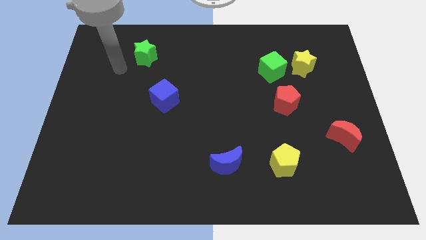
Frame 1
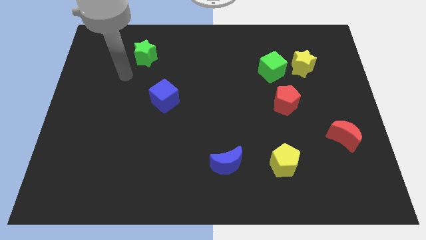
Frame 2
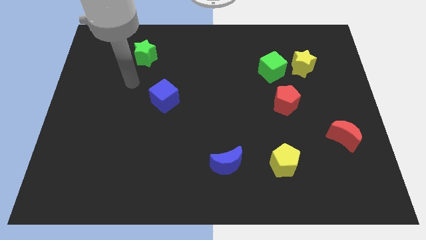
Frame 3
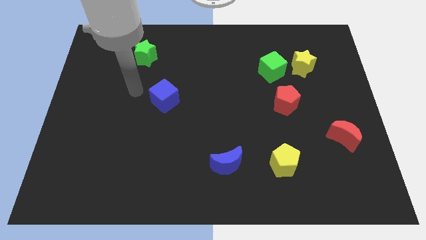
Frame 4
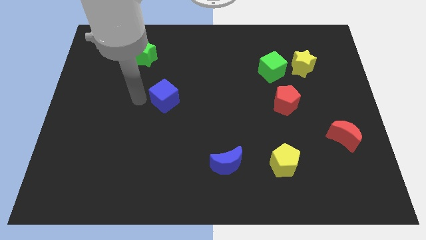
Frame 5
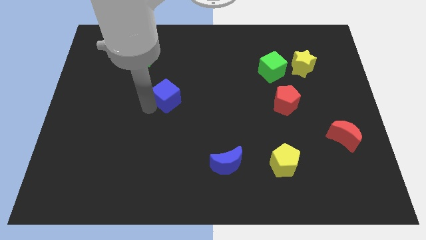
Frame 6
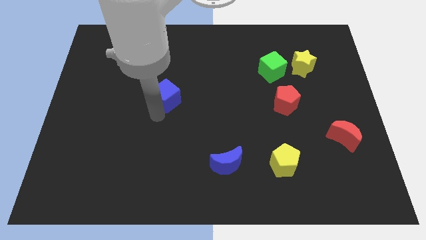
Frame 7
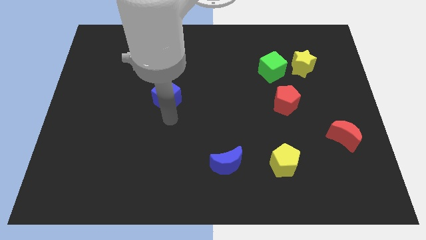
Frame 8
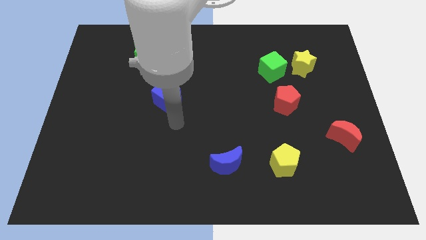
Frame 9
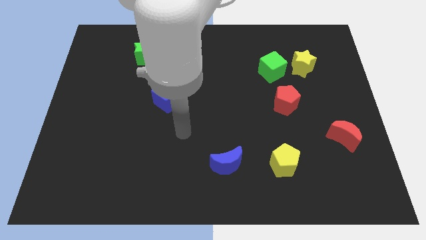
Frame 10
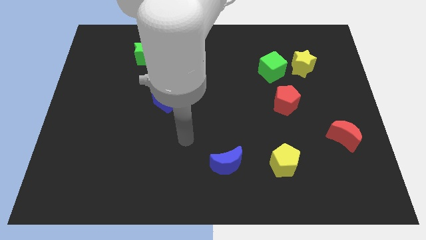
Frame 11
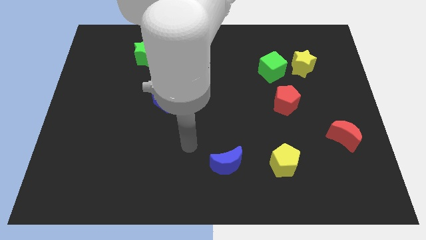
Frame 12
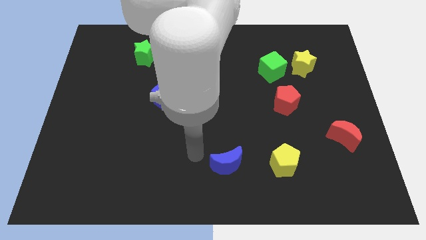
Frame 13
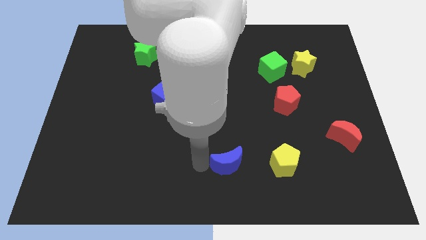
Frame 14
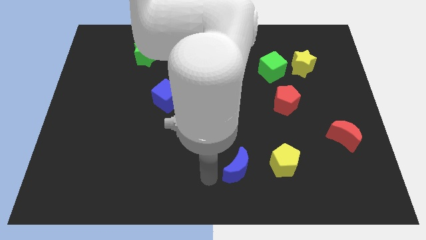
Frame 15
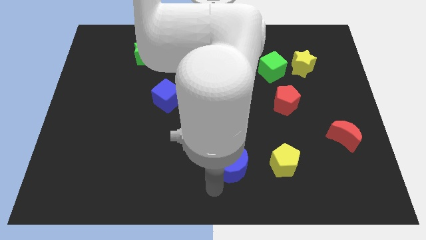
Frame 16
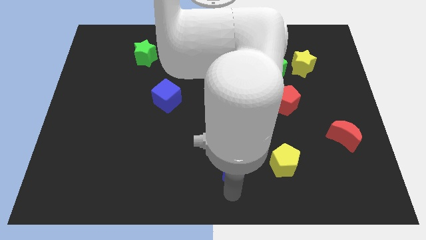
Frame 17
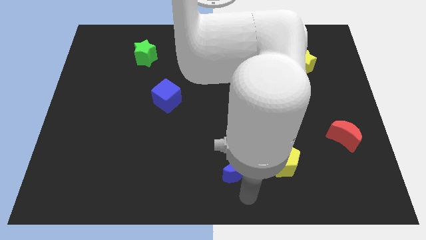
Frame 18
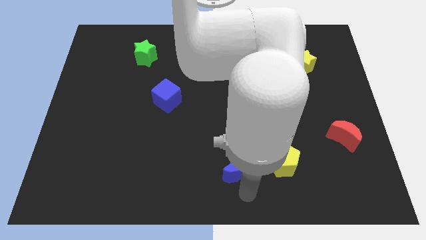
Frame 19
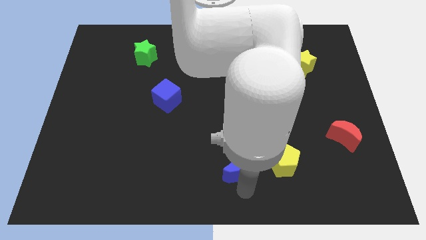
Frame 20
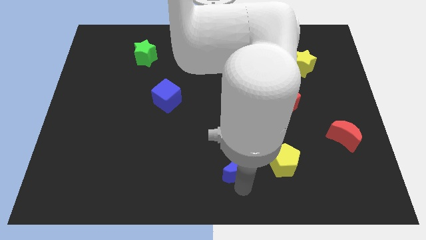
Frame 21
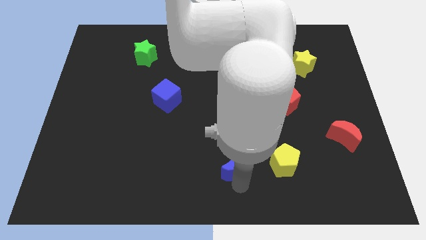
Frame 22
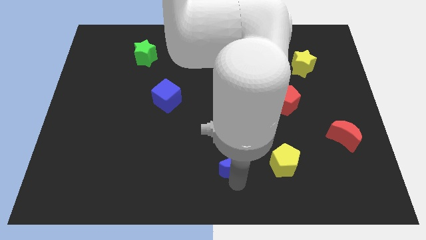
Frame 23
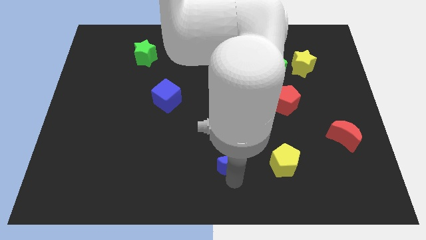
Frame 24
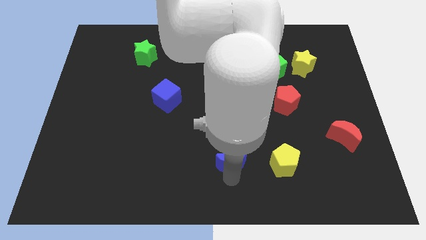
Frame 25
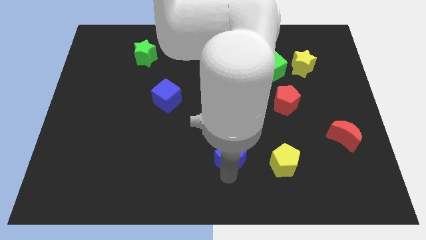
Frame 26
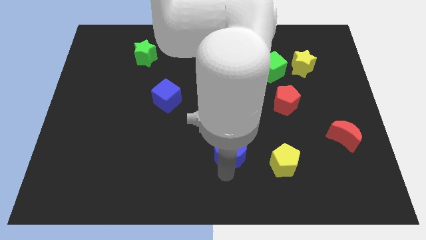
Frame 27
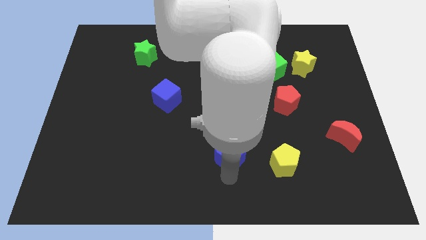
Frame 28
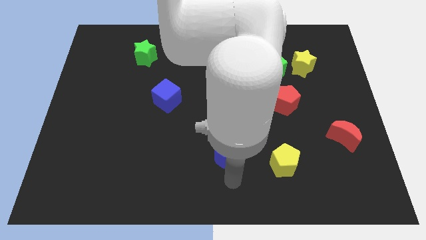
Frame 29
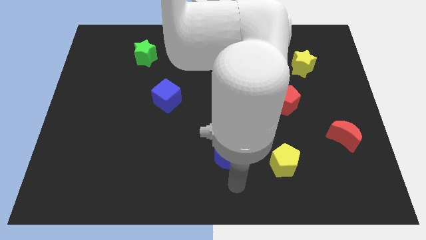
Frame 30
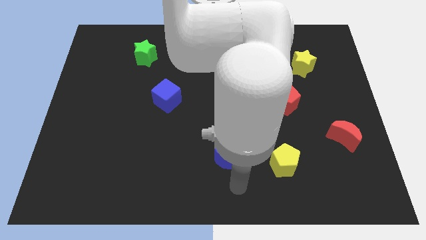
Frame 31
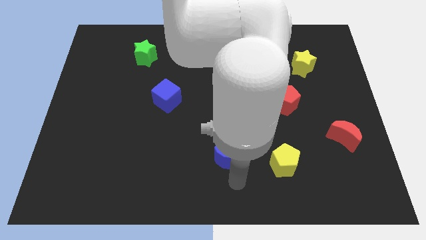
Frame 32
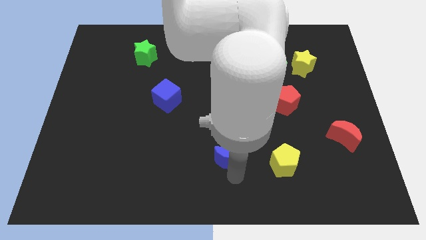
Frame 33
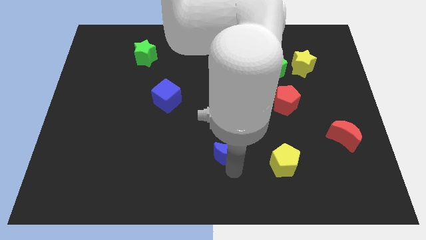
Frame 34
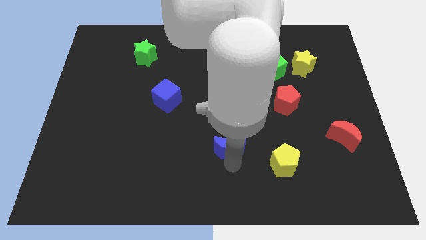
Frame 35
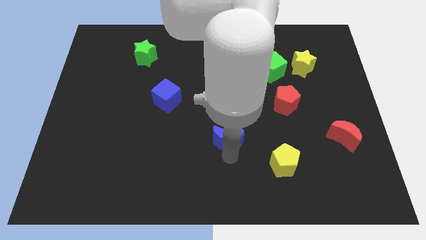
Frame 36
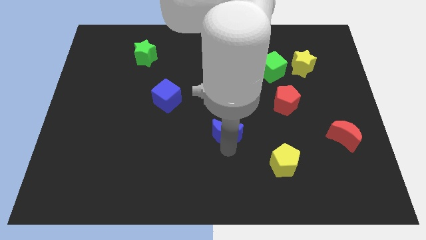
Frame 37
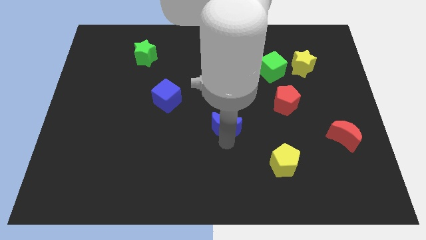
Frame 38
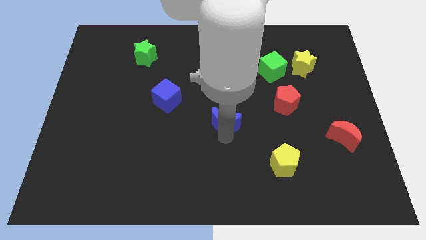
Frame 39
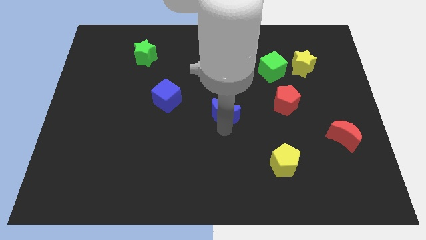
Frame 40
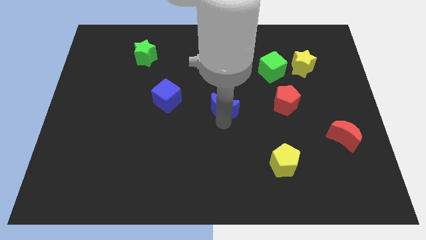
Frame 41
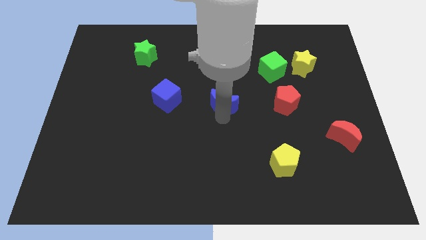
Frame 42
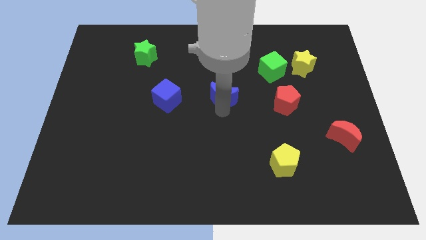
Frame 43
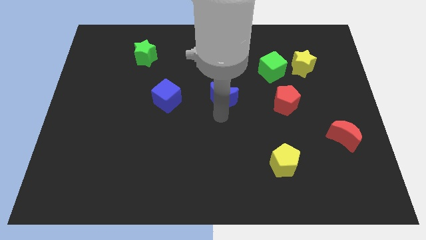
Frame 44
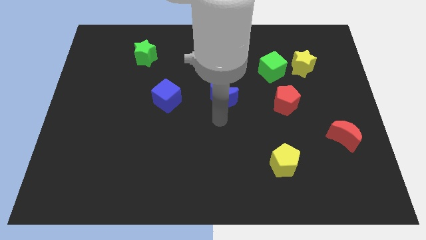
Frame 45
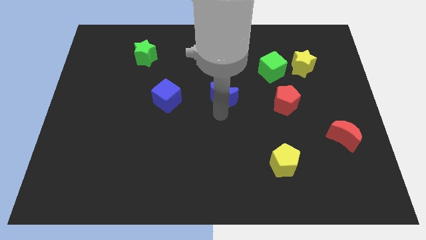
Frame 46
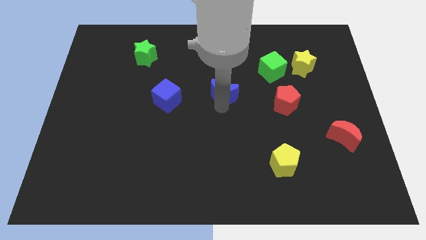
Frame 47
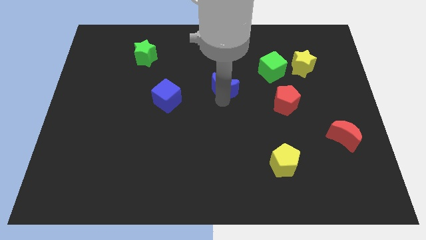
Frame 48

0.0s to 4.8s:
slide the blue moon up

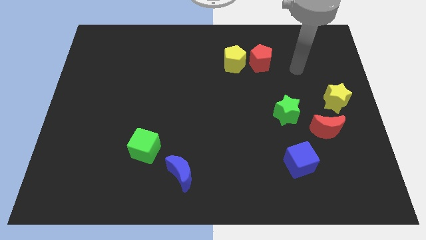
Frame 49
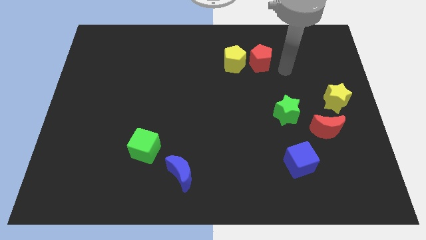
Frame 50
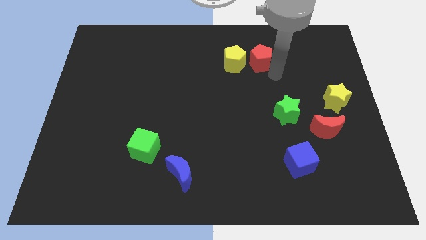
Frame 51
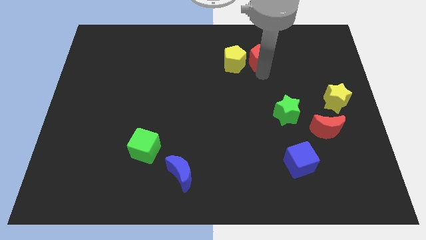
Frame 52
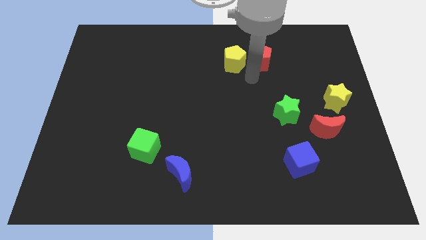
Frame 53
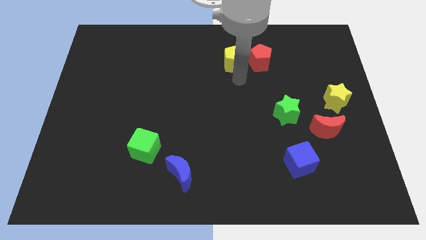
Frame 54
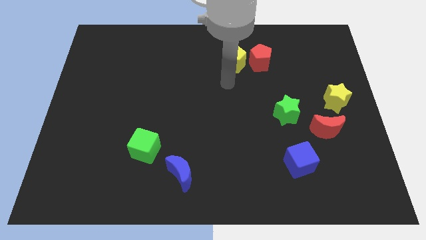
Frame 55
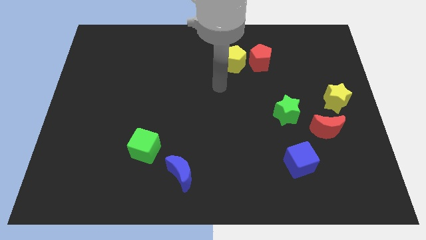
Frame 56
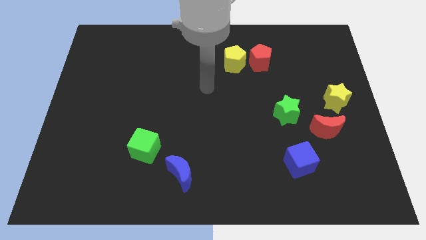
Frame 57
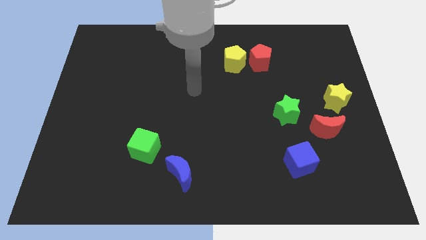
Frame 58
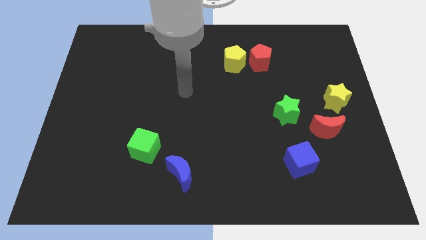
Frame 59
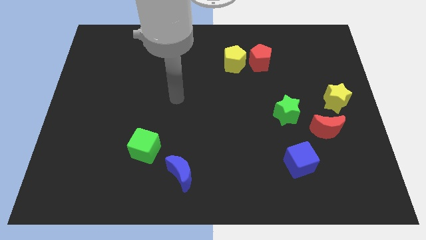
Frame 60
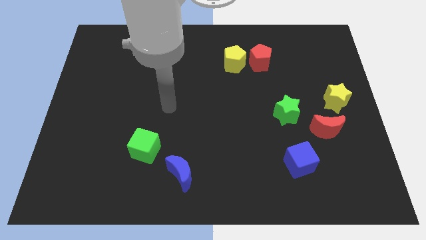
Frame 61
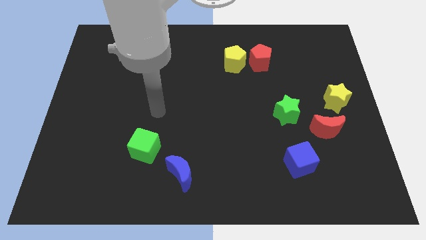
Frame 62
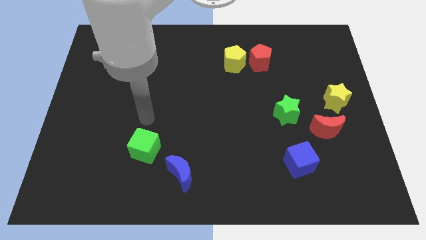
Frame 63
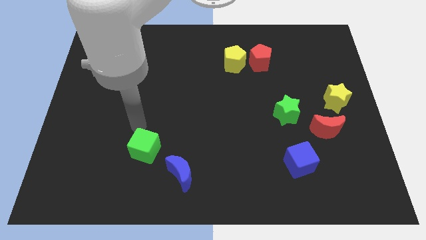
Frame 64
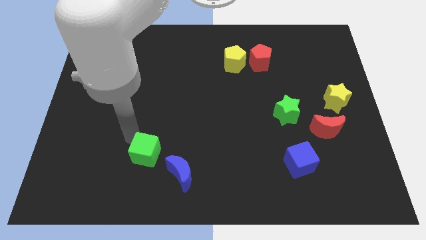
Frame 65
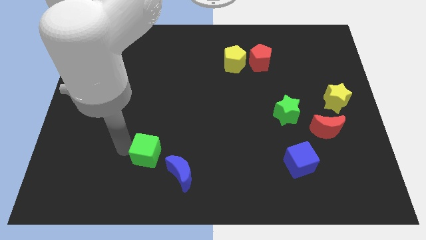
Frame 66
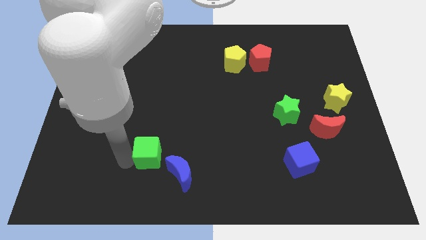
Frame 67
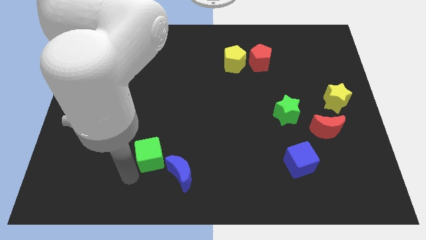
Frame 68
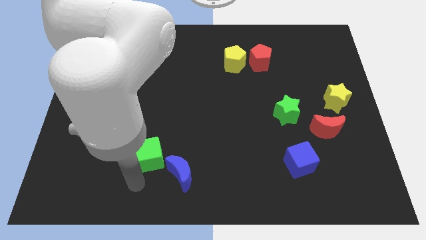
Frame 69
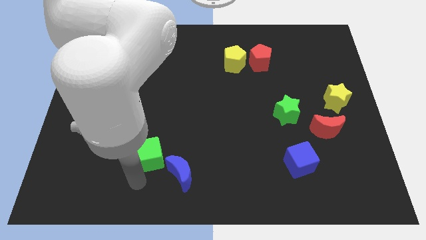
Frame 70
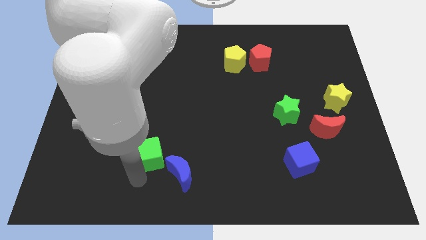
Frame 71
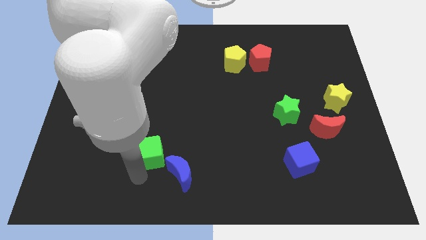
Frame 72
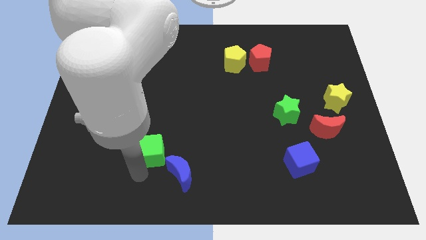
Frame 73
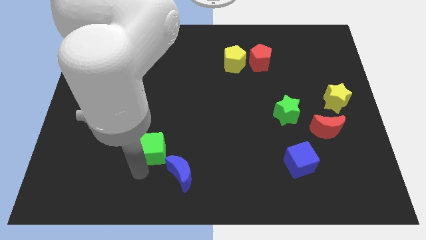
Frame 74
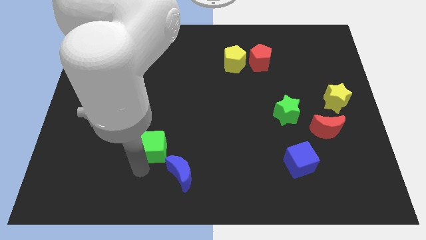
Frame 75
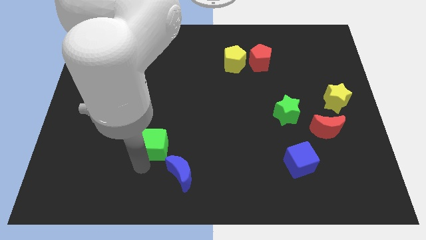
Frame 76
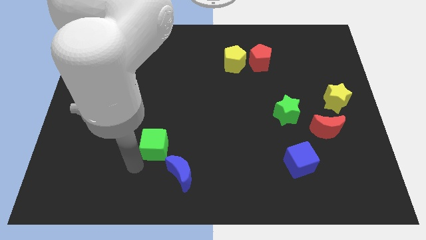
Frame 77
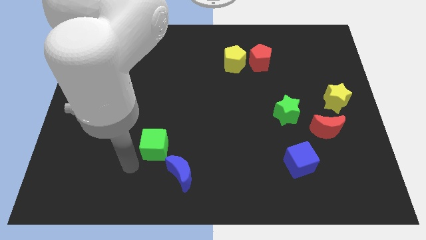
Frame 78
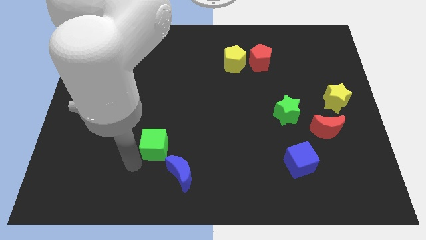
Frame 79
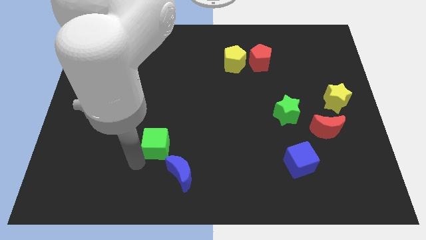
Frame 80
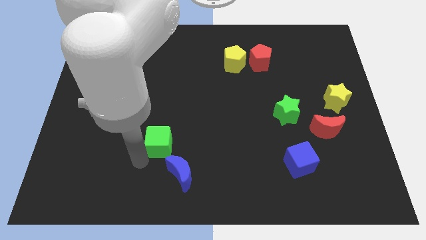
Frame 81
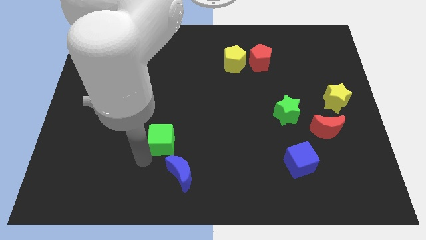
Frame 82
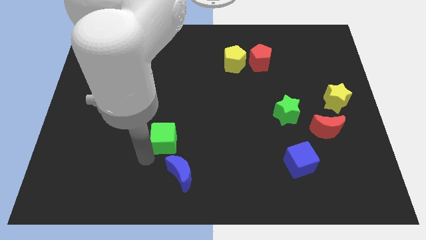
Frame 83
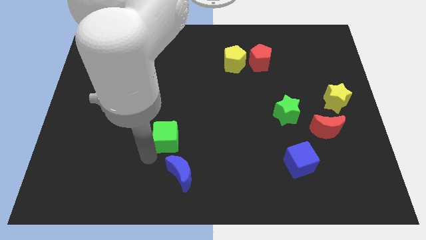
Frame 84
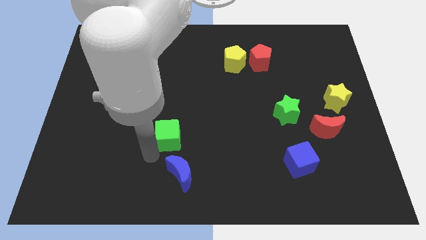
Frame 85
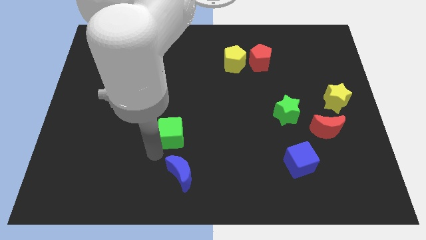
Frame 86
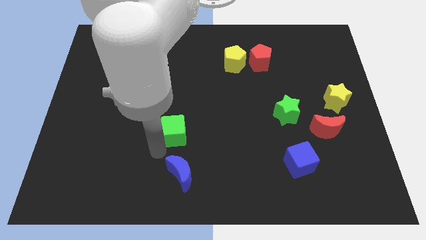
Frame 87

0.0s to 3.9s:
slightly slide the green cube diagonally up and to the right
